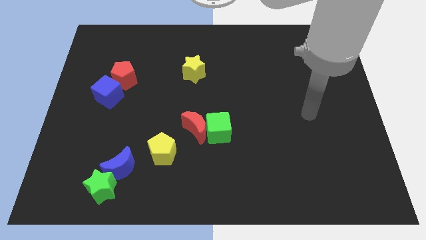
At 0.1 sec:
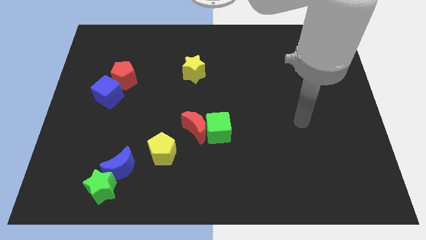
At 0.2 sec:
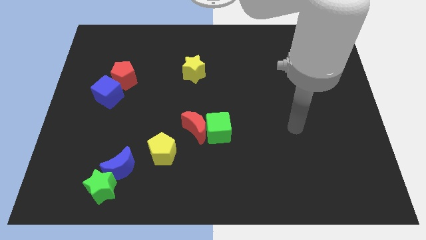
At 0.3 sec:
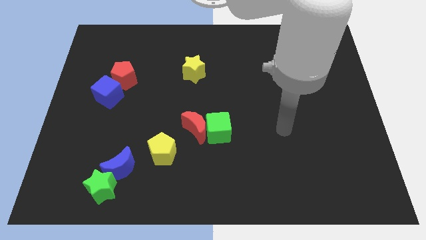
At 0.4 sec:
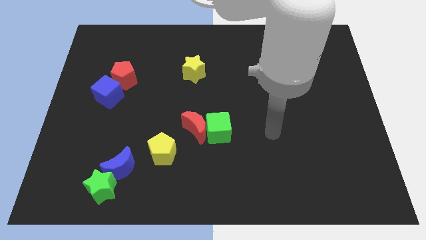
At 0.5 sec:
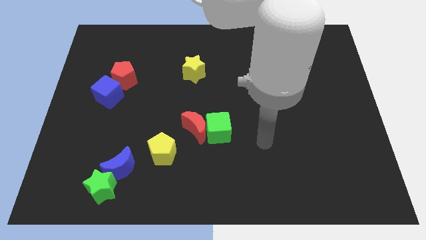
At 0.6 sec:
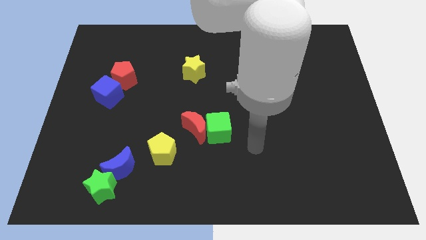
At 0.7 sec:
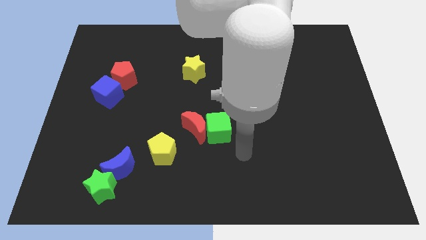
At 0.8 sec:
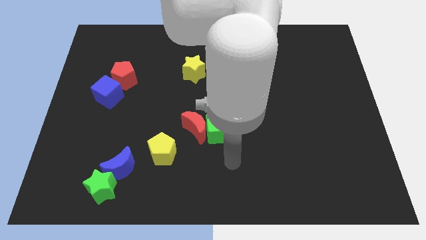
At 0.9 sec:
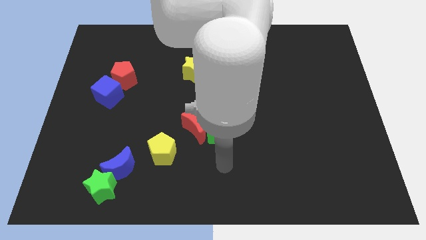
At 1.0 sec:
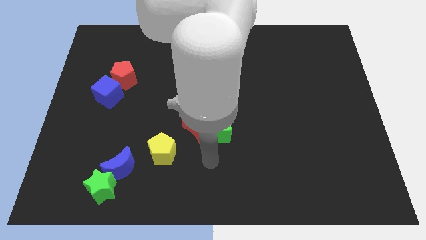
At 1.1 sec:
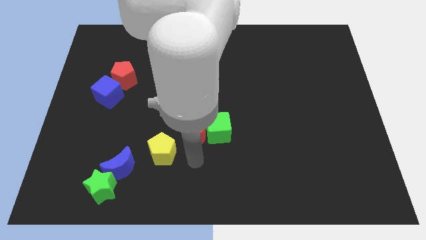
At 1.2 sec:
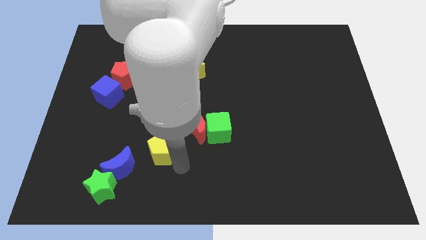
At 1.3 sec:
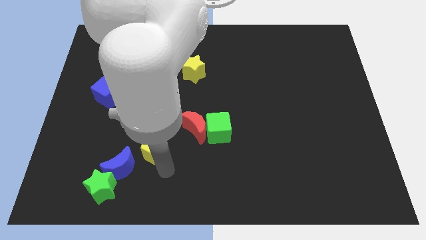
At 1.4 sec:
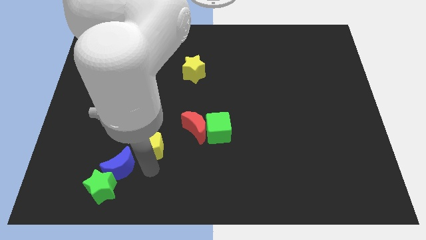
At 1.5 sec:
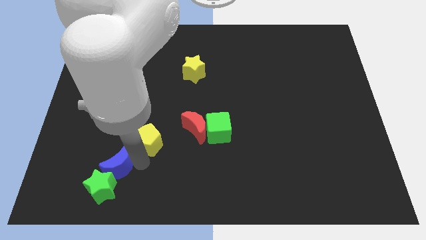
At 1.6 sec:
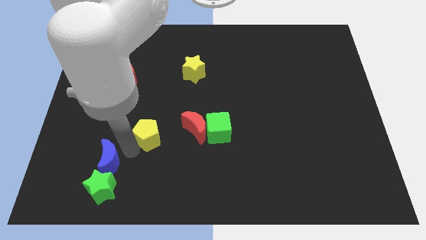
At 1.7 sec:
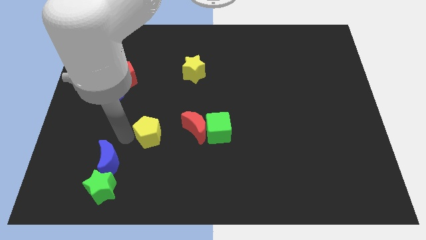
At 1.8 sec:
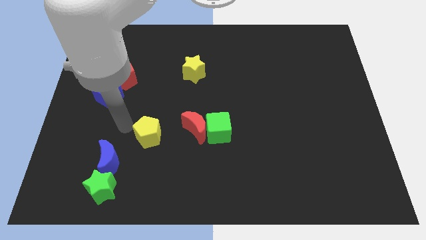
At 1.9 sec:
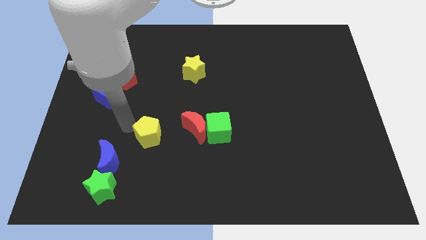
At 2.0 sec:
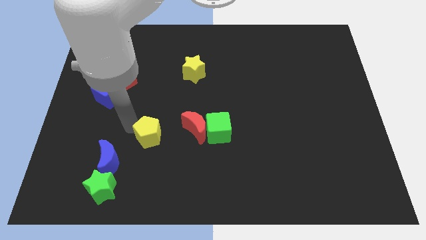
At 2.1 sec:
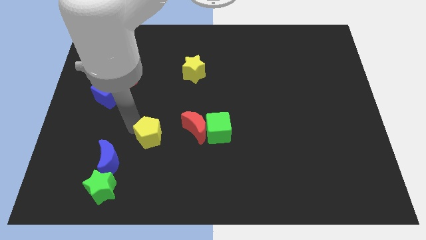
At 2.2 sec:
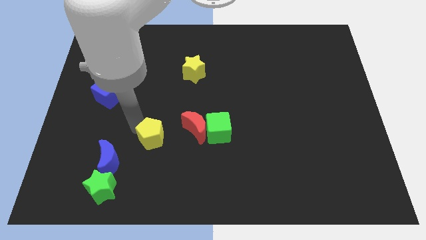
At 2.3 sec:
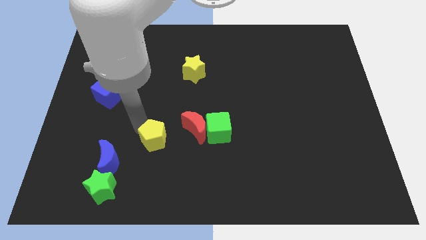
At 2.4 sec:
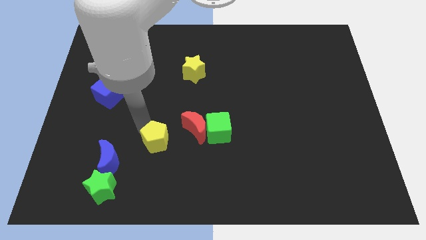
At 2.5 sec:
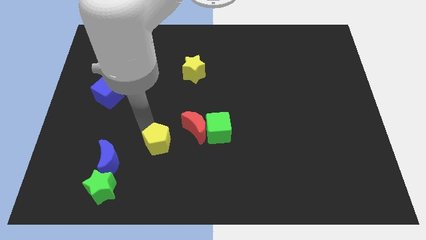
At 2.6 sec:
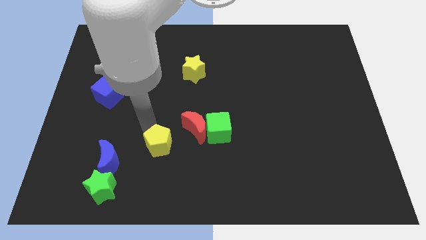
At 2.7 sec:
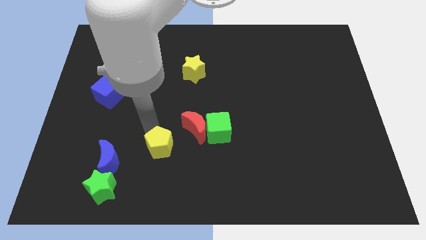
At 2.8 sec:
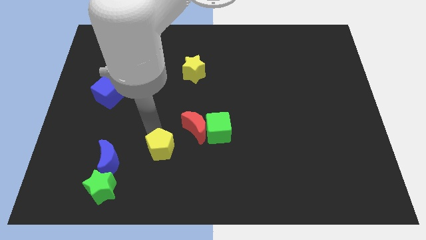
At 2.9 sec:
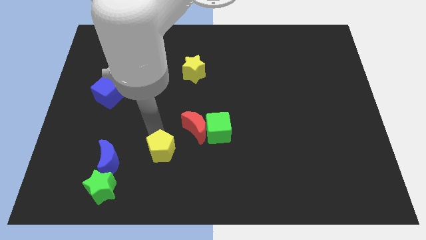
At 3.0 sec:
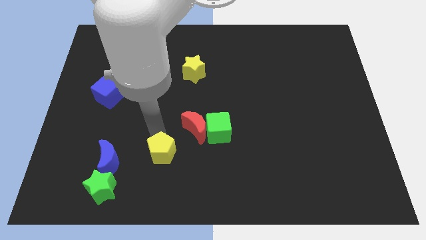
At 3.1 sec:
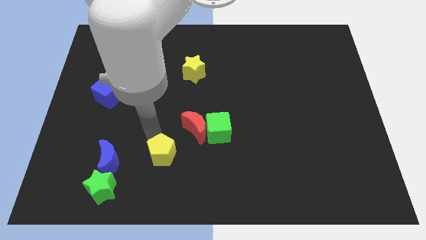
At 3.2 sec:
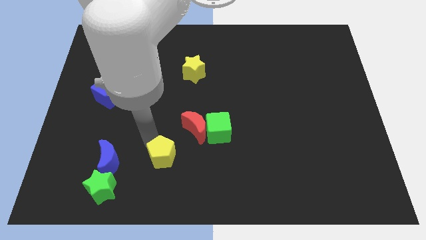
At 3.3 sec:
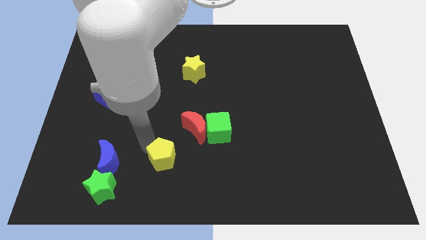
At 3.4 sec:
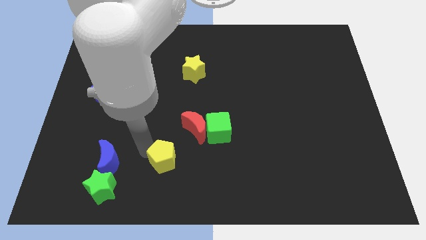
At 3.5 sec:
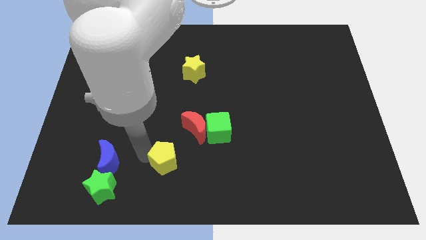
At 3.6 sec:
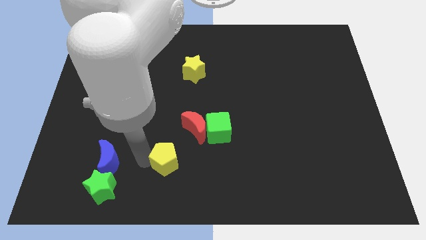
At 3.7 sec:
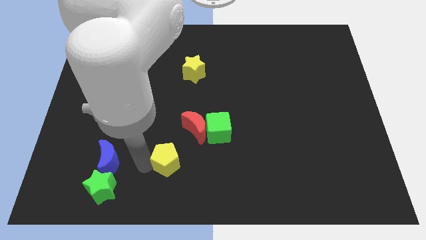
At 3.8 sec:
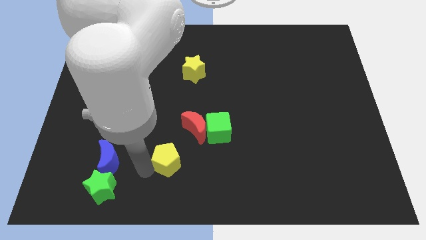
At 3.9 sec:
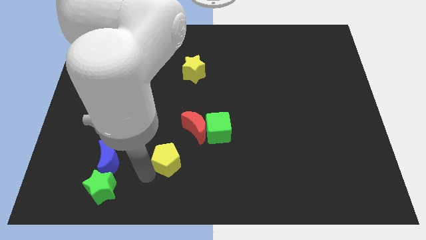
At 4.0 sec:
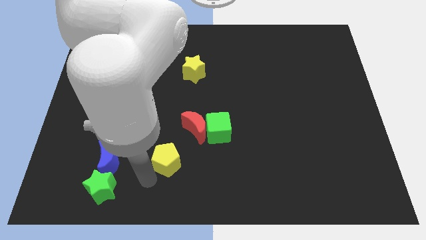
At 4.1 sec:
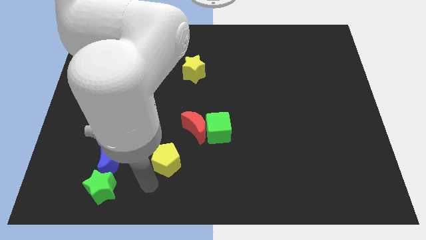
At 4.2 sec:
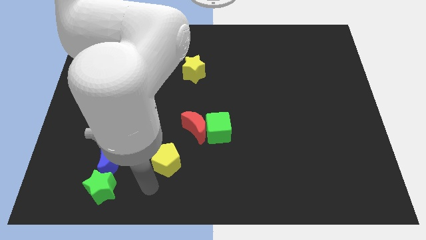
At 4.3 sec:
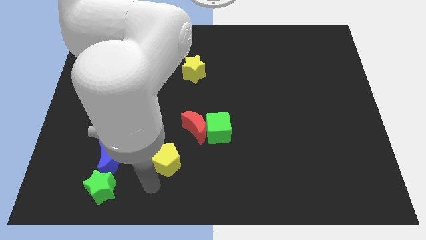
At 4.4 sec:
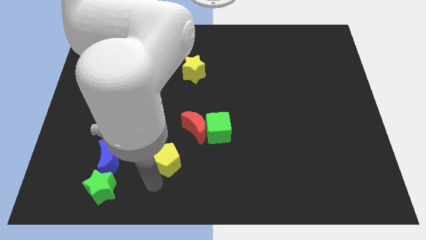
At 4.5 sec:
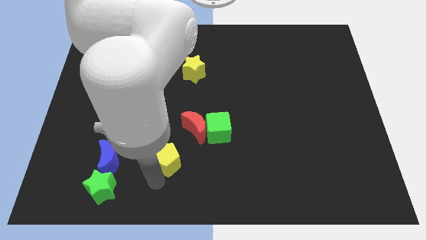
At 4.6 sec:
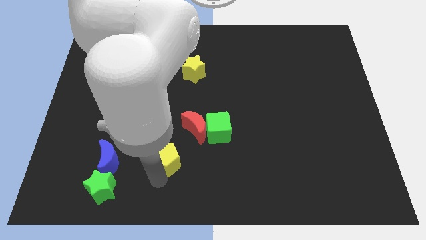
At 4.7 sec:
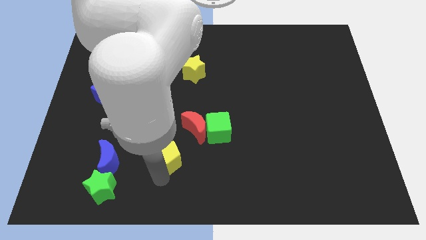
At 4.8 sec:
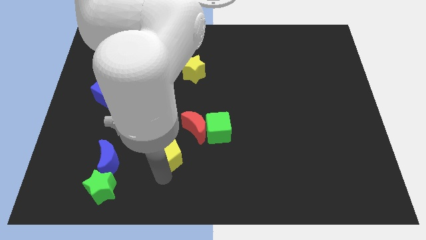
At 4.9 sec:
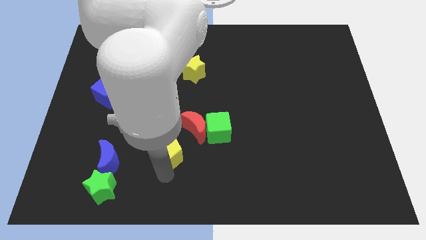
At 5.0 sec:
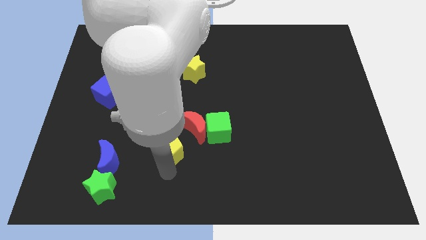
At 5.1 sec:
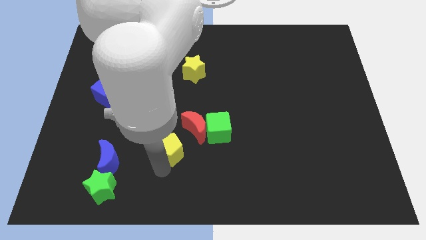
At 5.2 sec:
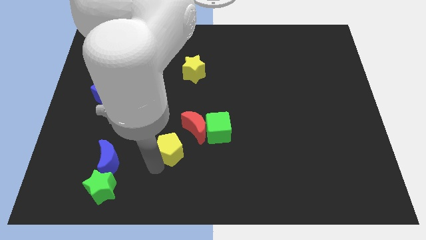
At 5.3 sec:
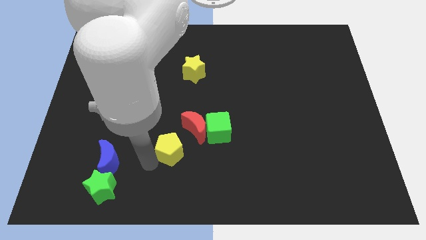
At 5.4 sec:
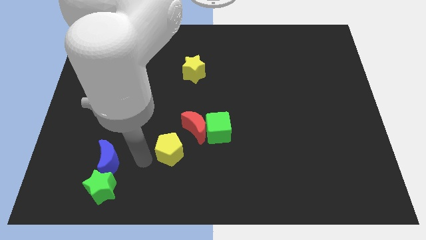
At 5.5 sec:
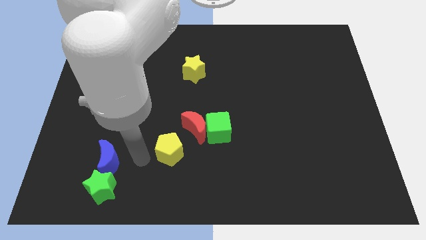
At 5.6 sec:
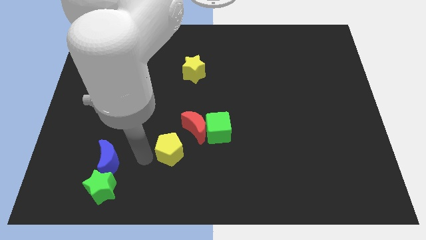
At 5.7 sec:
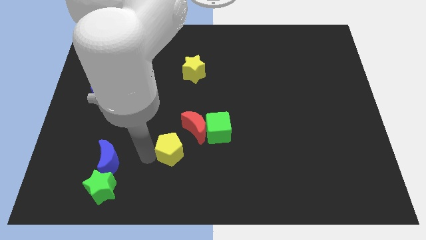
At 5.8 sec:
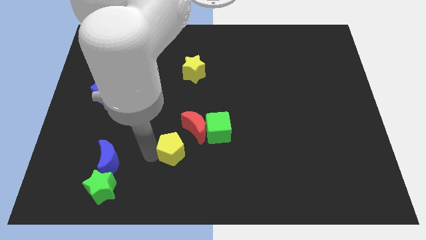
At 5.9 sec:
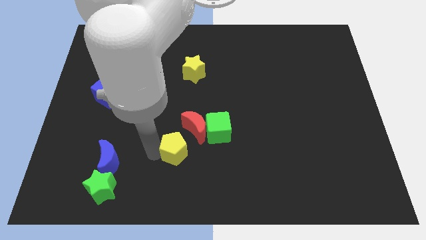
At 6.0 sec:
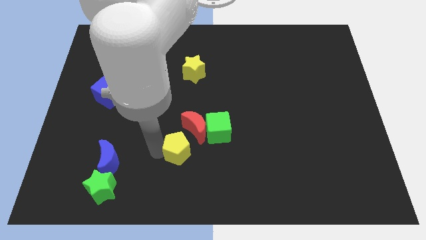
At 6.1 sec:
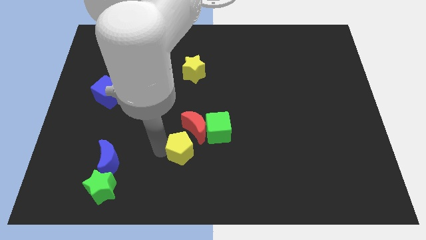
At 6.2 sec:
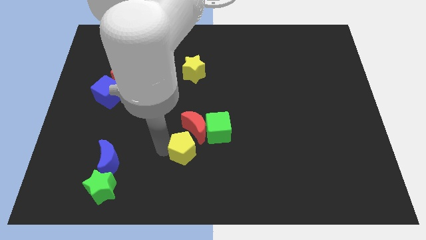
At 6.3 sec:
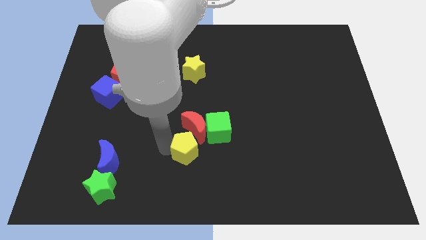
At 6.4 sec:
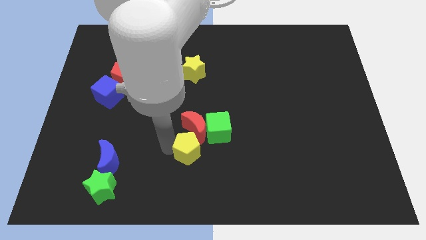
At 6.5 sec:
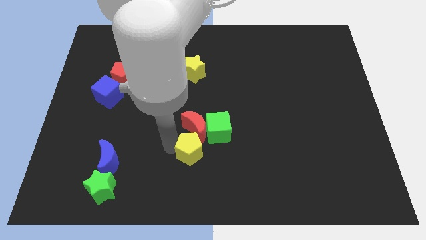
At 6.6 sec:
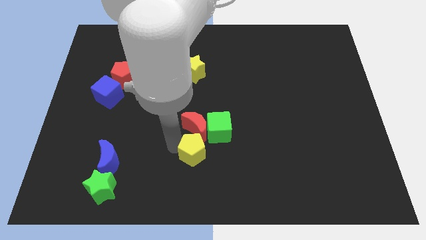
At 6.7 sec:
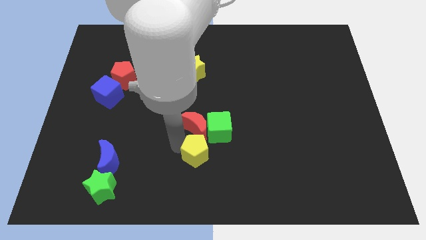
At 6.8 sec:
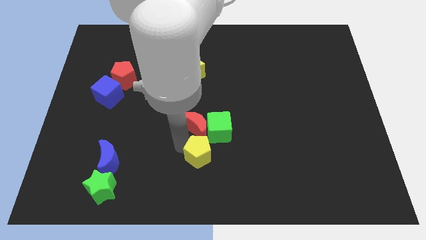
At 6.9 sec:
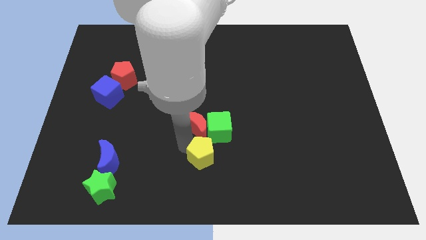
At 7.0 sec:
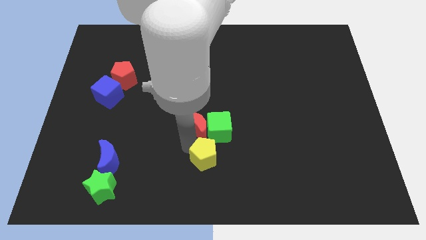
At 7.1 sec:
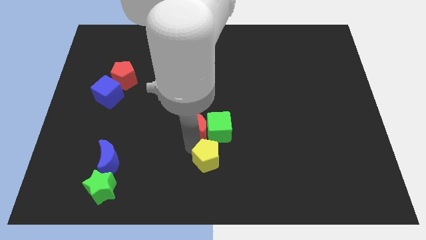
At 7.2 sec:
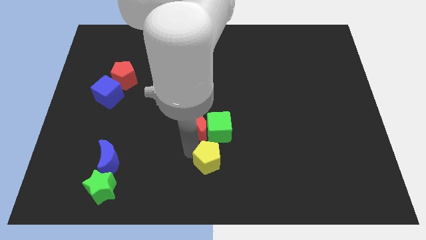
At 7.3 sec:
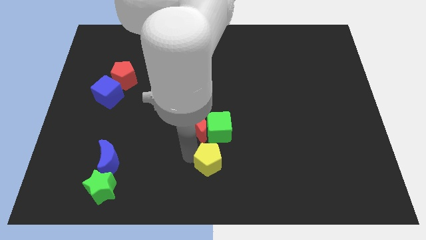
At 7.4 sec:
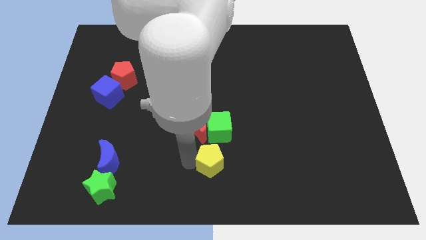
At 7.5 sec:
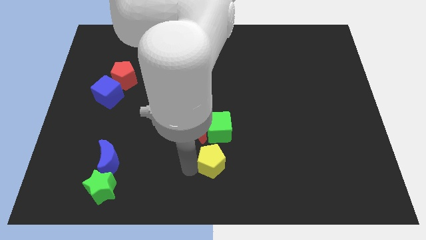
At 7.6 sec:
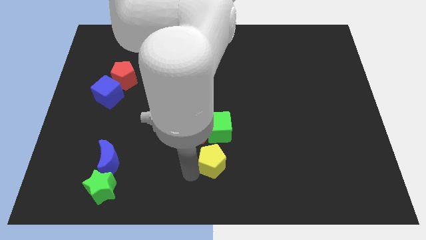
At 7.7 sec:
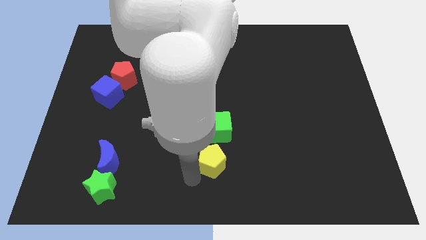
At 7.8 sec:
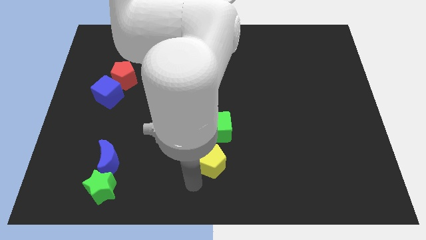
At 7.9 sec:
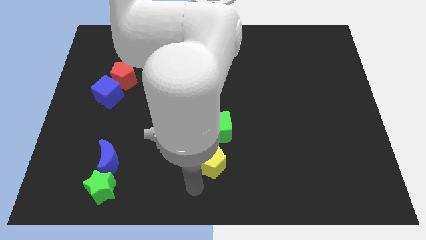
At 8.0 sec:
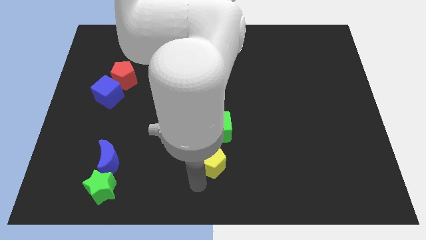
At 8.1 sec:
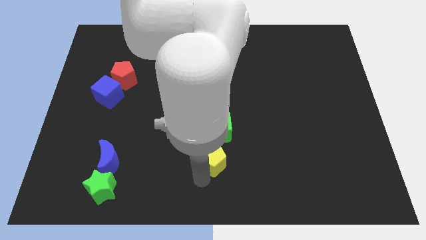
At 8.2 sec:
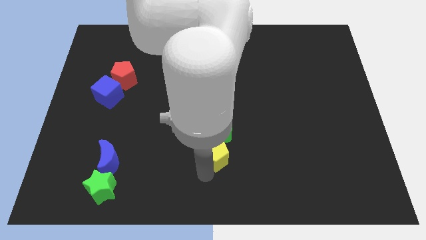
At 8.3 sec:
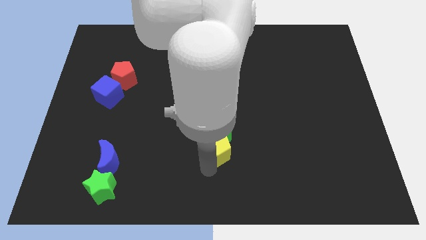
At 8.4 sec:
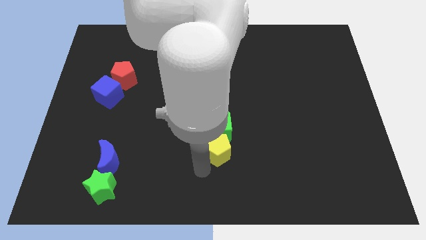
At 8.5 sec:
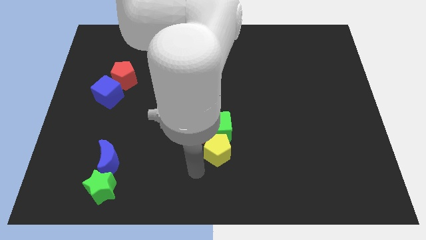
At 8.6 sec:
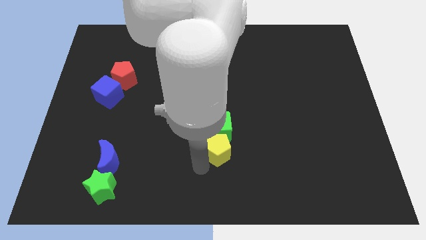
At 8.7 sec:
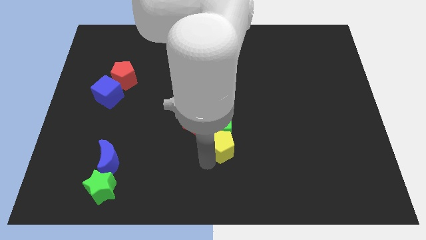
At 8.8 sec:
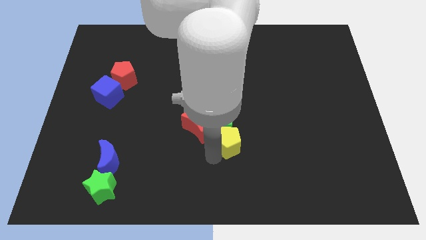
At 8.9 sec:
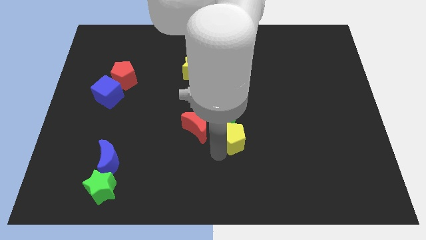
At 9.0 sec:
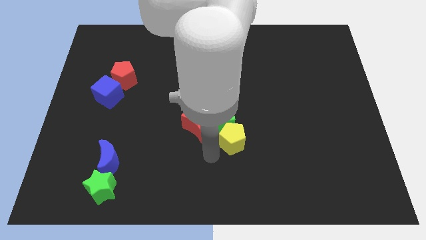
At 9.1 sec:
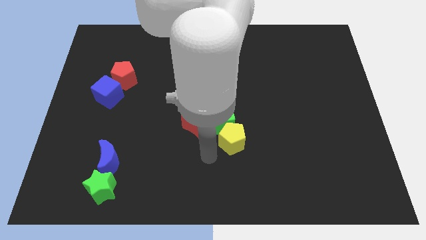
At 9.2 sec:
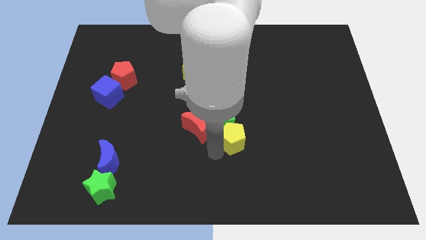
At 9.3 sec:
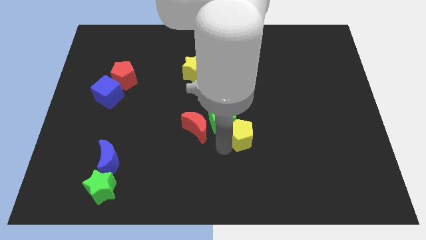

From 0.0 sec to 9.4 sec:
put the yellow pentagon to the right of the green cube
